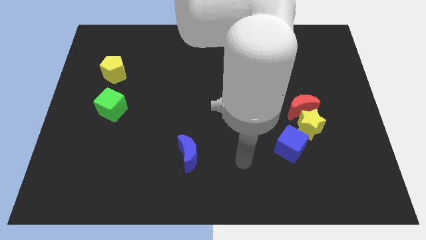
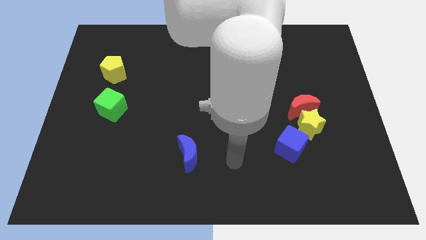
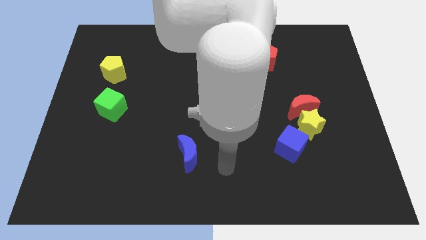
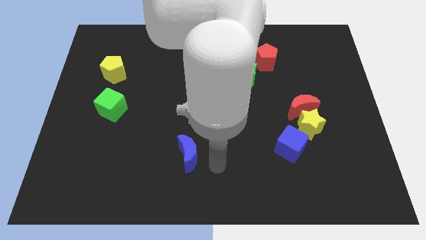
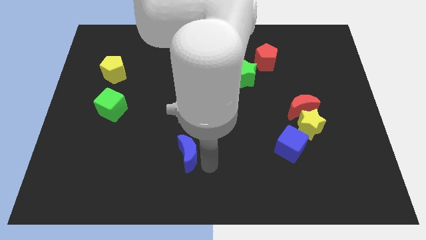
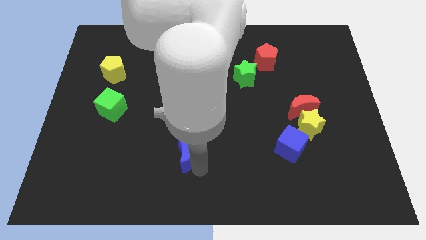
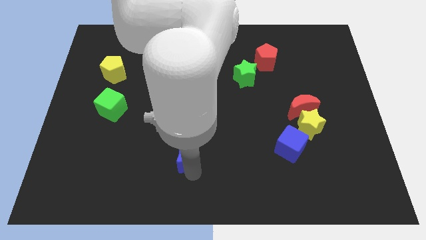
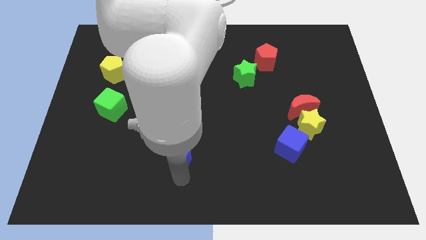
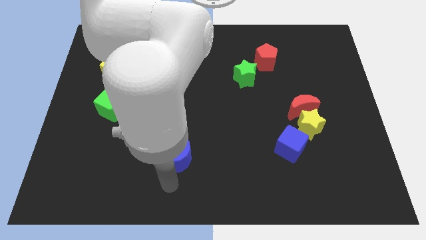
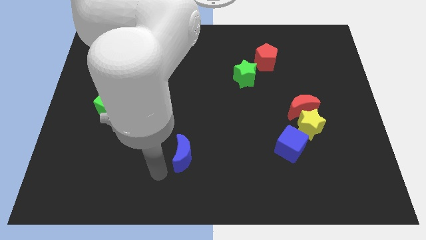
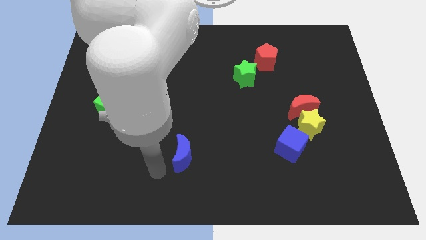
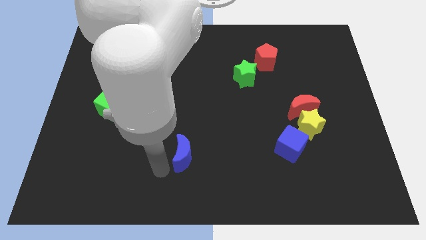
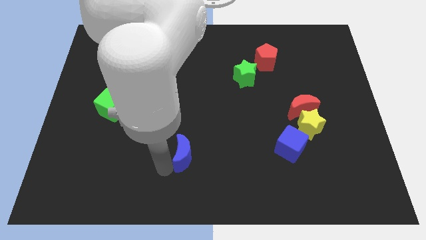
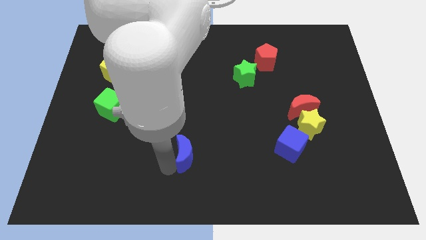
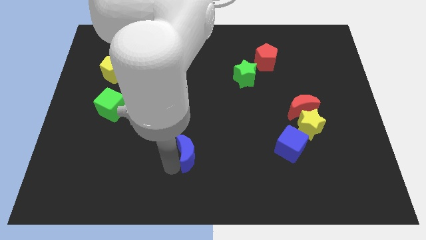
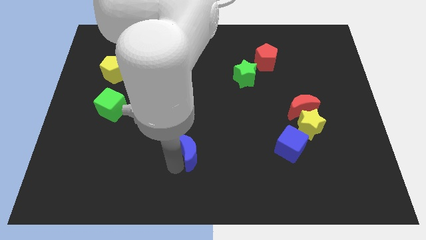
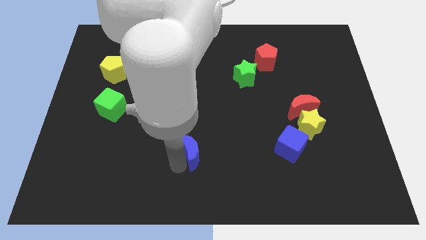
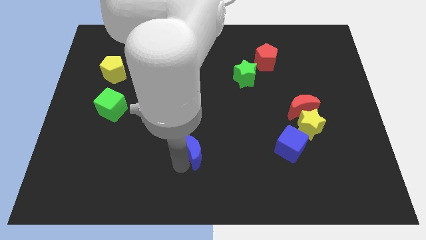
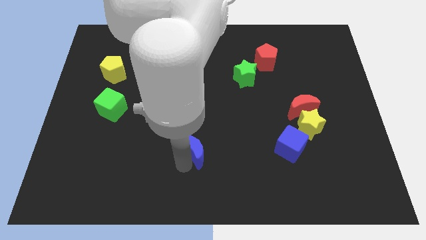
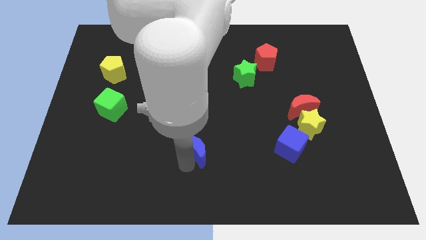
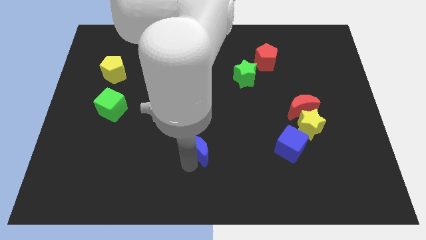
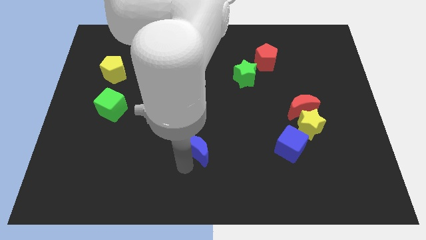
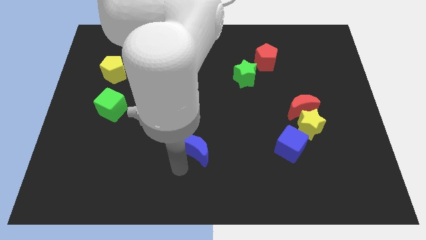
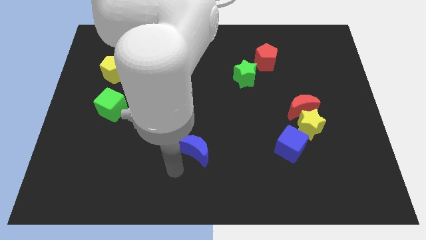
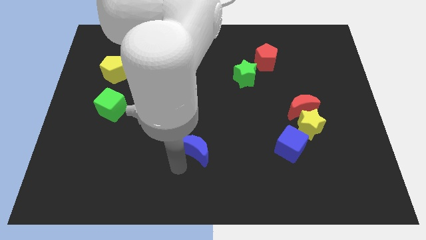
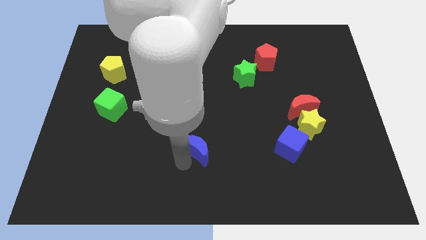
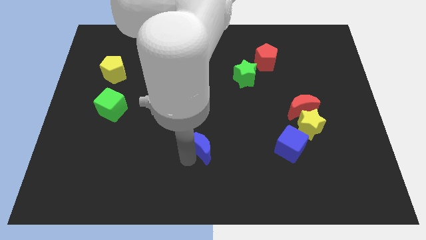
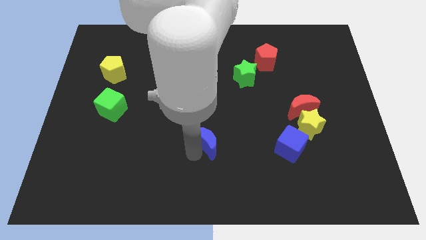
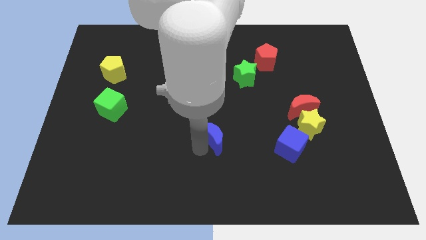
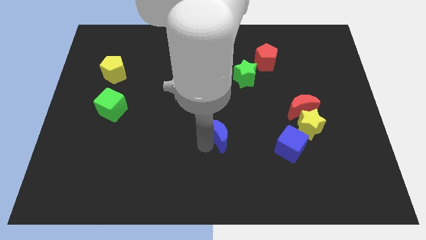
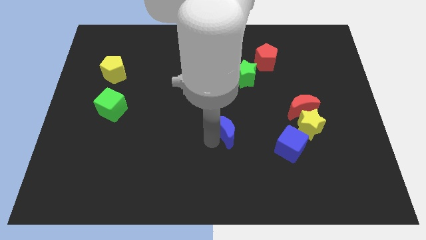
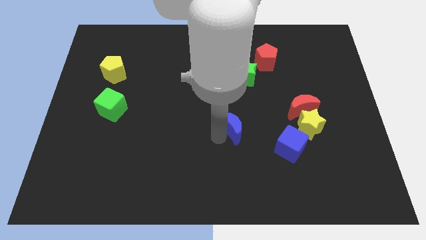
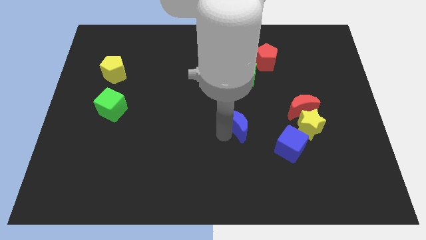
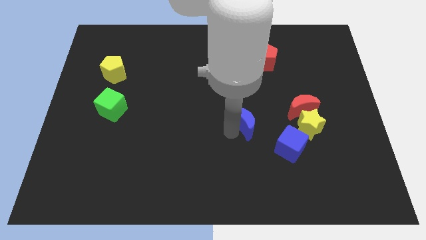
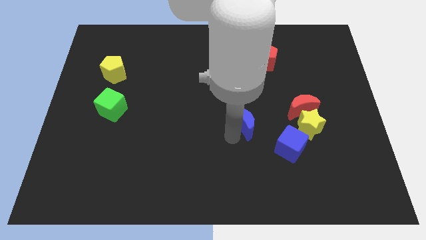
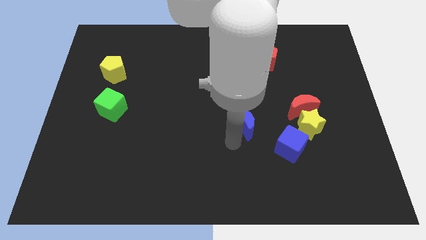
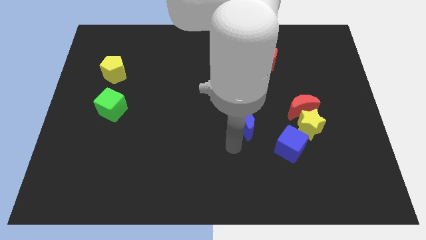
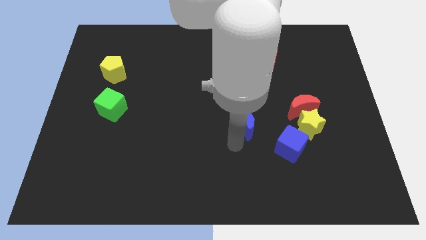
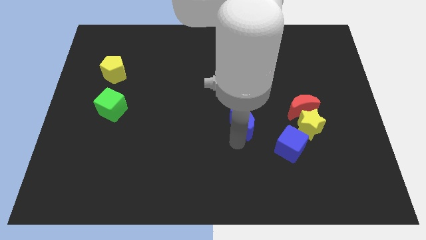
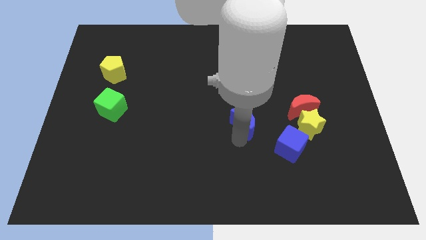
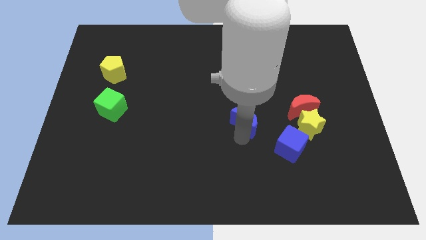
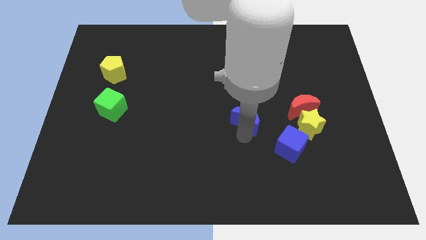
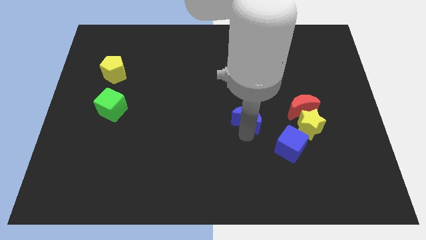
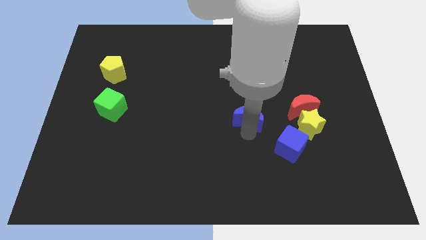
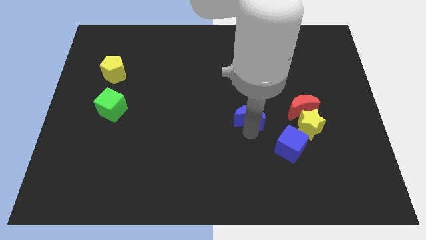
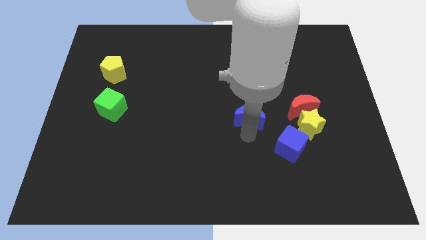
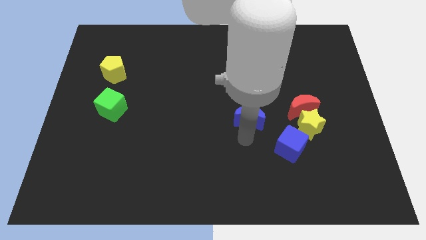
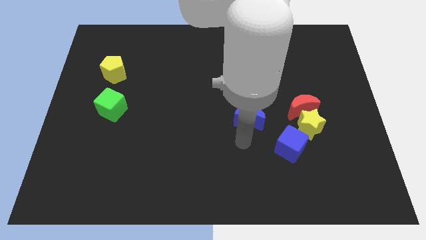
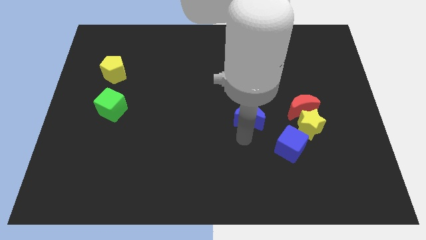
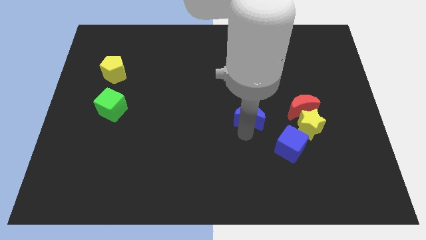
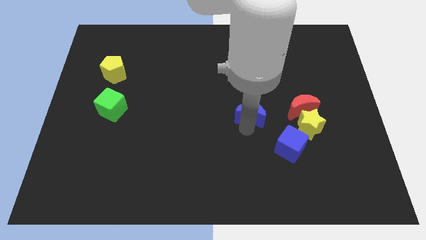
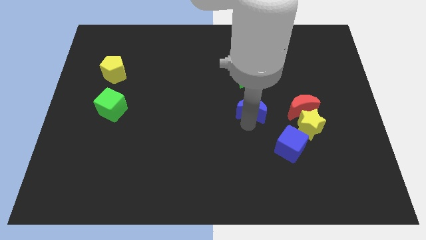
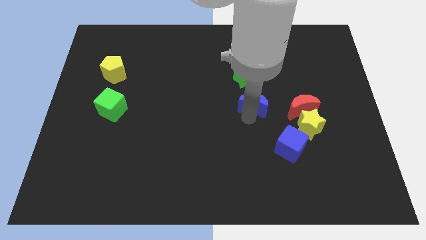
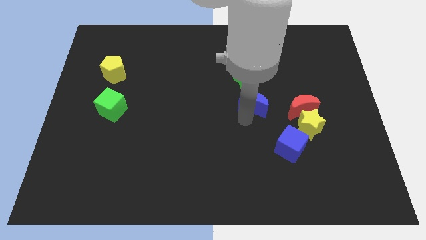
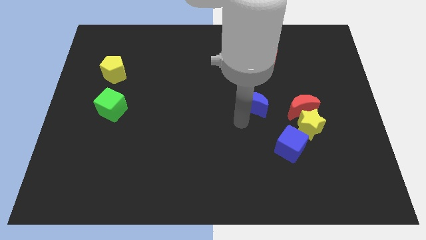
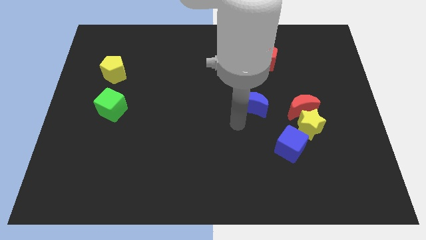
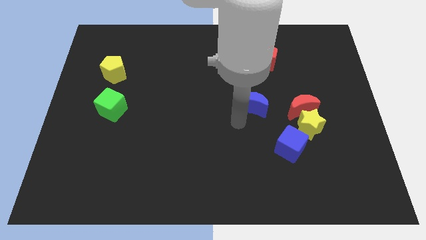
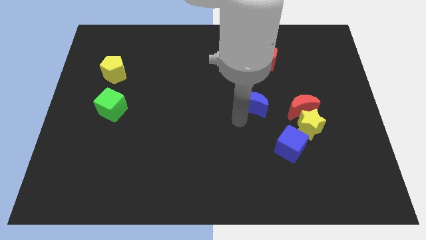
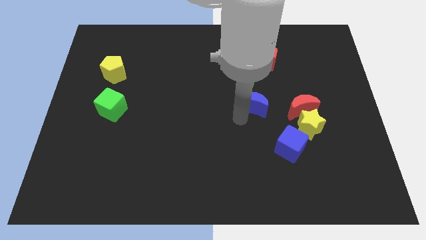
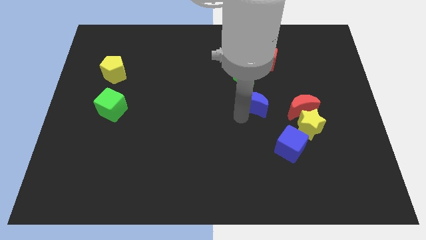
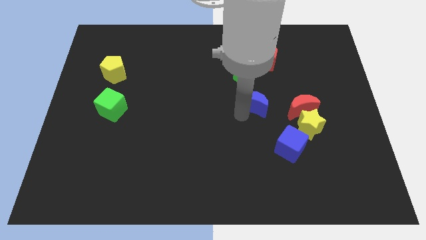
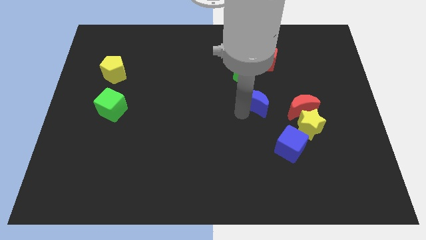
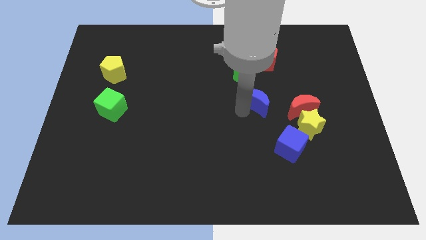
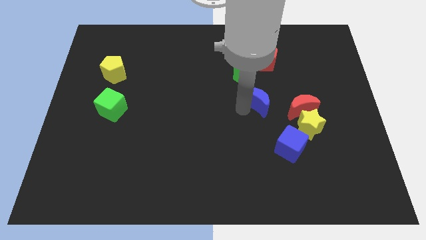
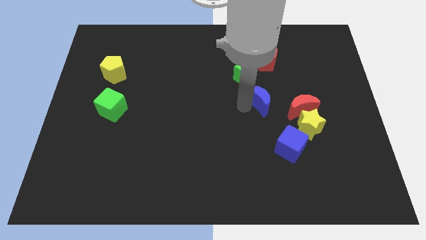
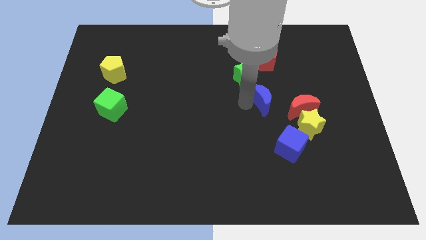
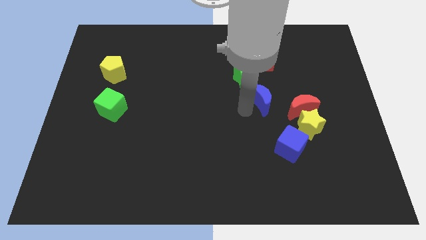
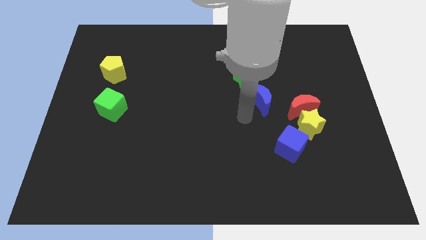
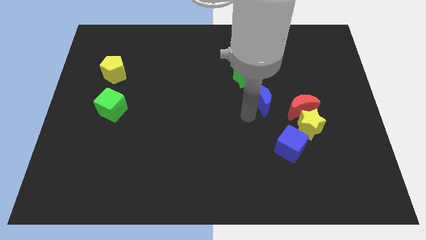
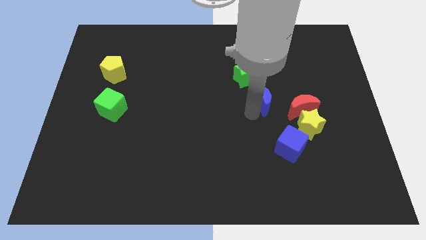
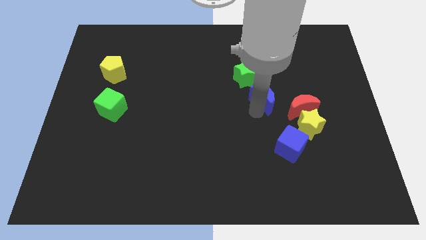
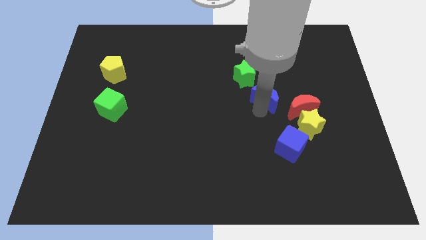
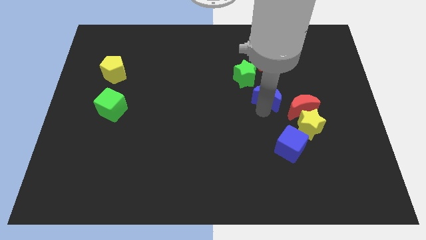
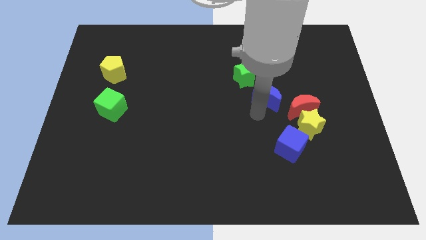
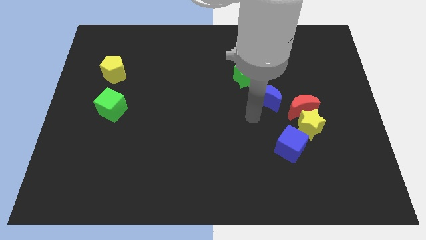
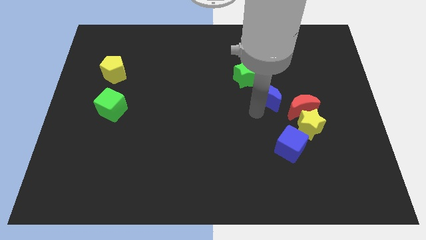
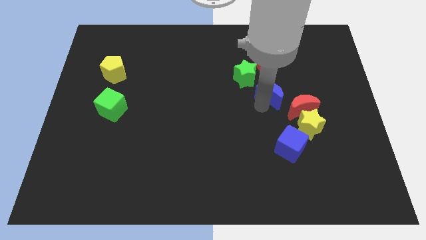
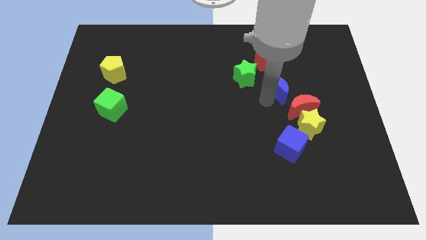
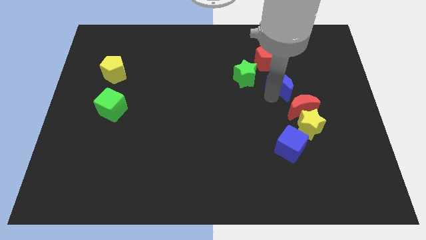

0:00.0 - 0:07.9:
put the blue moon to the bottom right of the red pentagon
